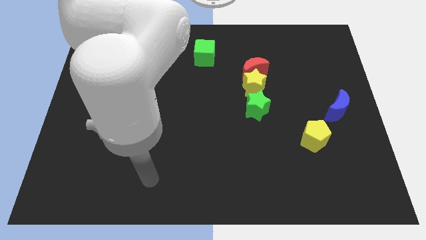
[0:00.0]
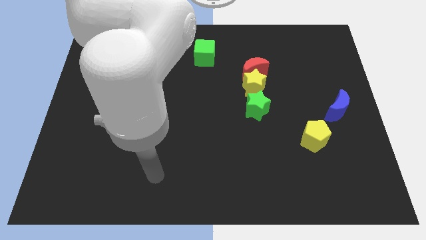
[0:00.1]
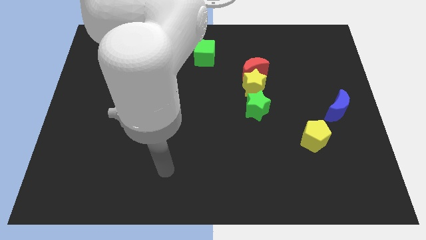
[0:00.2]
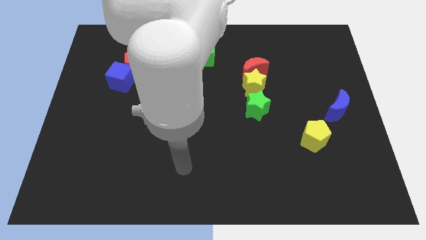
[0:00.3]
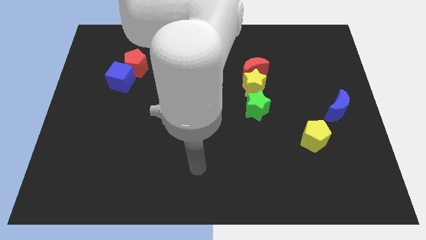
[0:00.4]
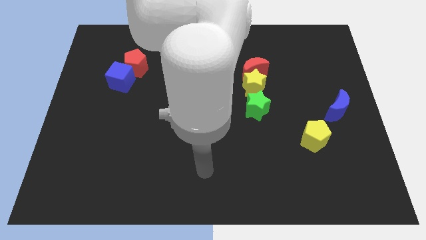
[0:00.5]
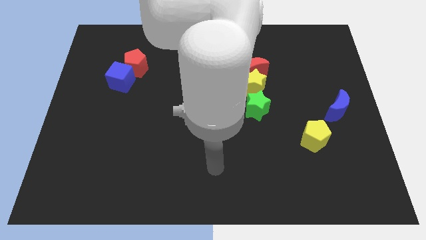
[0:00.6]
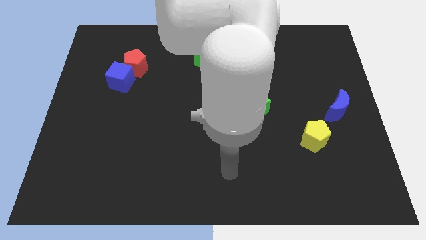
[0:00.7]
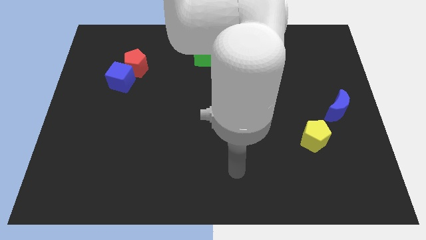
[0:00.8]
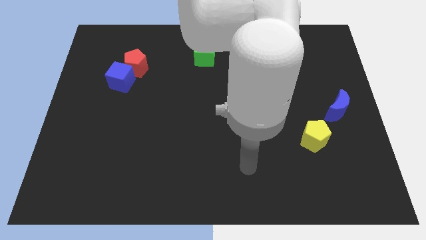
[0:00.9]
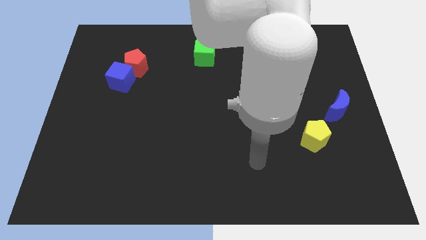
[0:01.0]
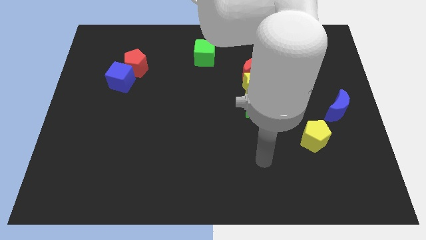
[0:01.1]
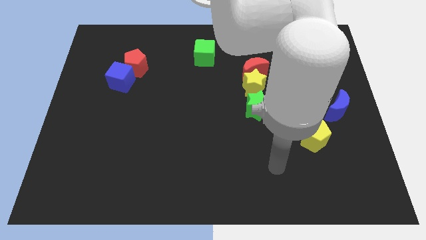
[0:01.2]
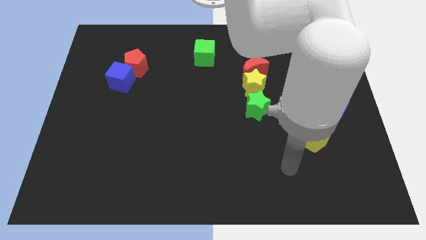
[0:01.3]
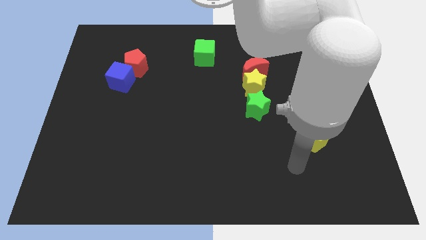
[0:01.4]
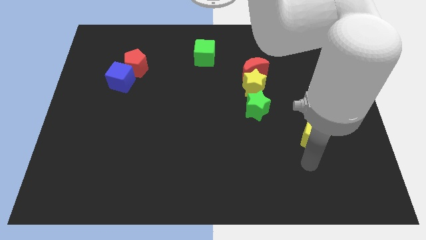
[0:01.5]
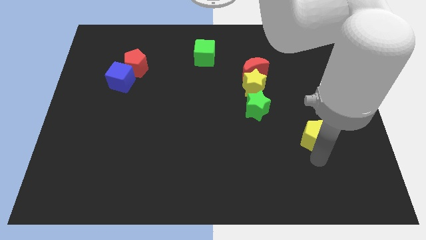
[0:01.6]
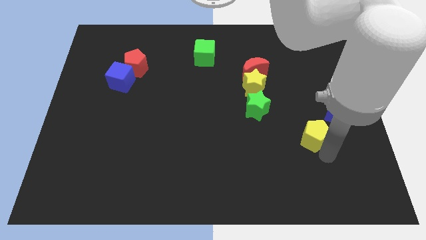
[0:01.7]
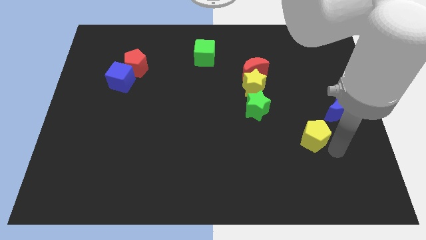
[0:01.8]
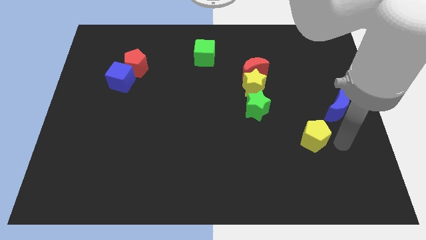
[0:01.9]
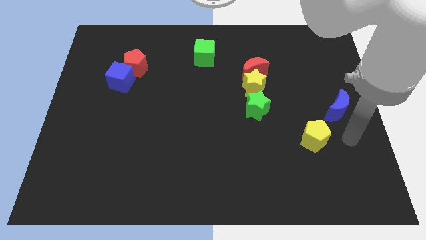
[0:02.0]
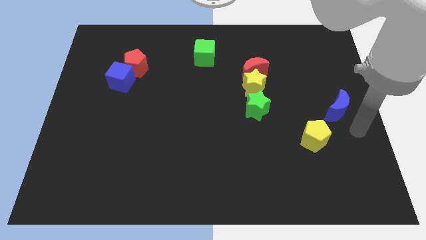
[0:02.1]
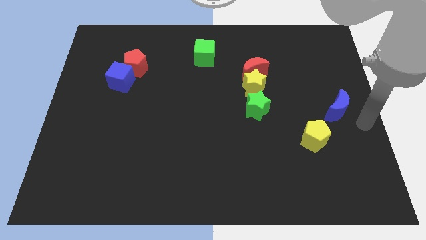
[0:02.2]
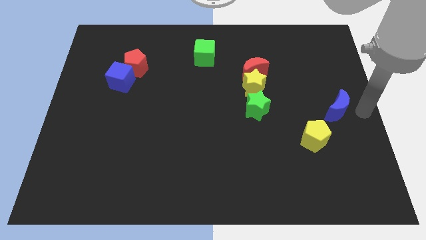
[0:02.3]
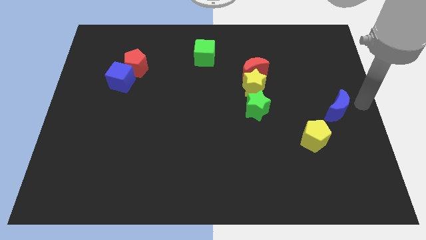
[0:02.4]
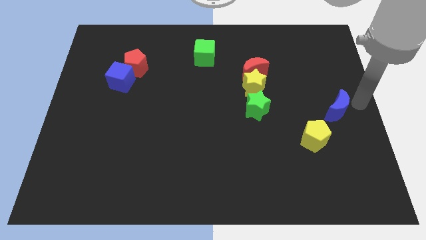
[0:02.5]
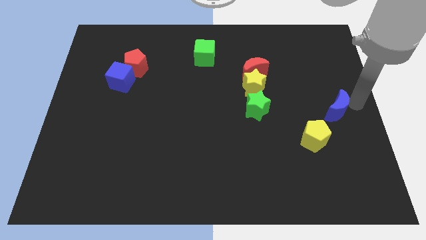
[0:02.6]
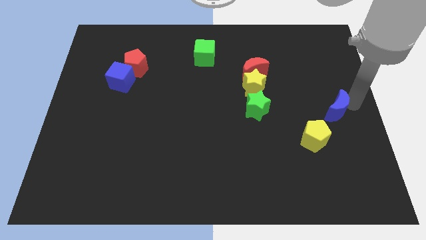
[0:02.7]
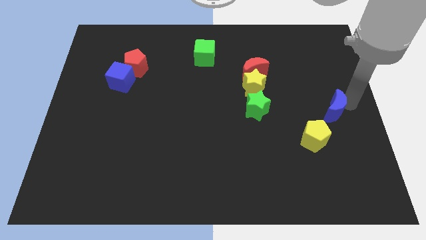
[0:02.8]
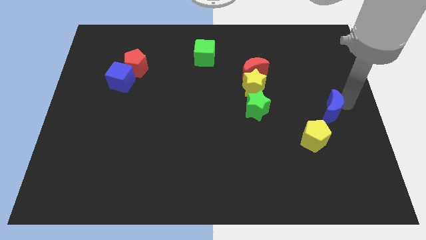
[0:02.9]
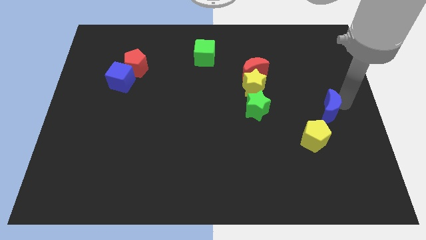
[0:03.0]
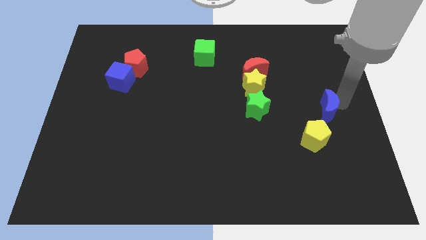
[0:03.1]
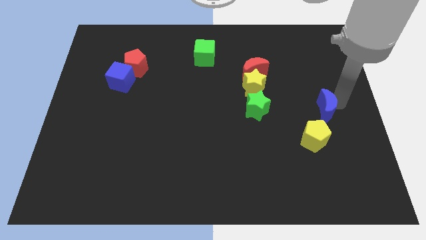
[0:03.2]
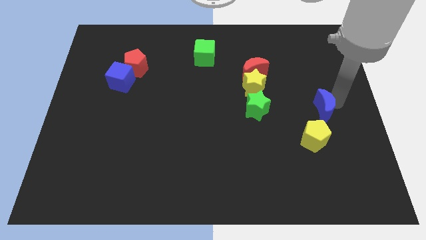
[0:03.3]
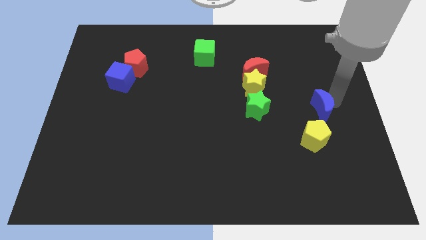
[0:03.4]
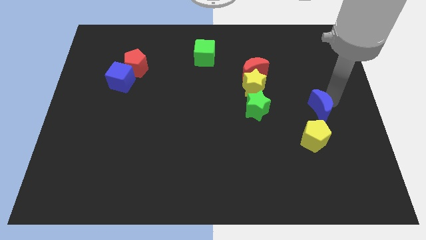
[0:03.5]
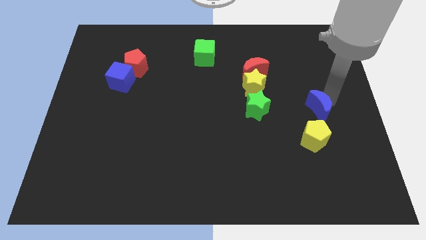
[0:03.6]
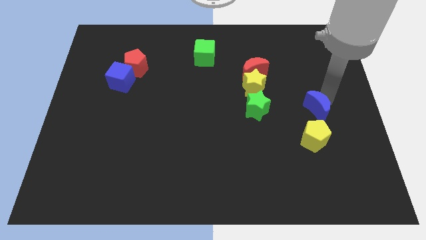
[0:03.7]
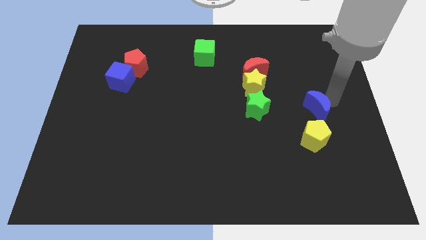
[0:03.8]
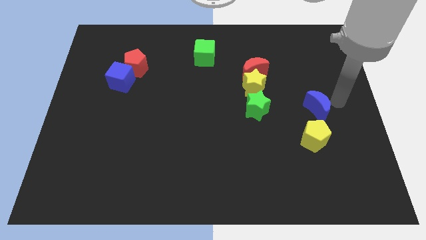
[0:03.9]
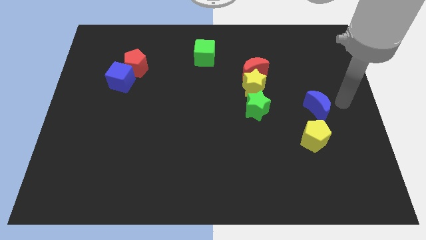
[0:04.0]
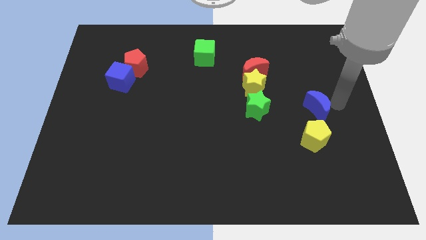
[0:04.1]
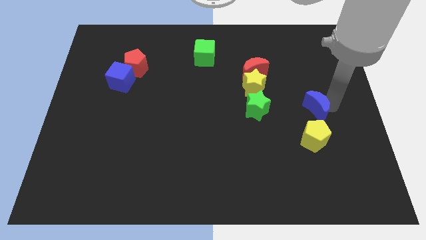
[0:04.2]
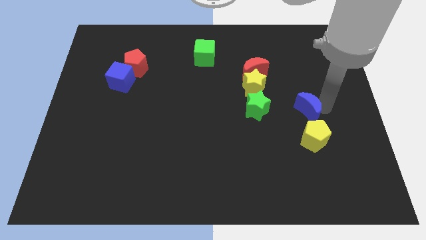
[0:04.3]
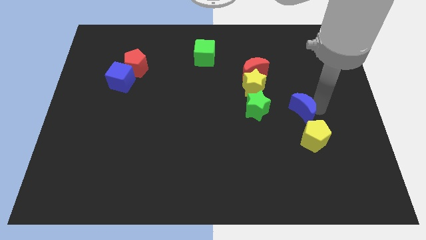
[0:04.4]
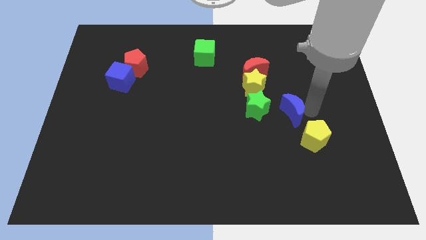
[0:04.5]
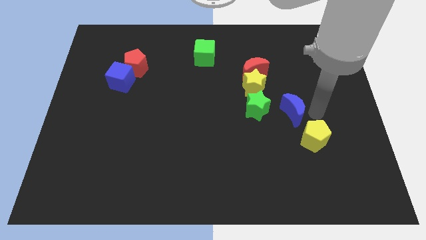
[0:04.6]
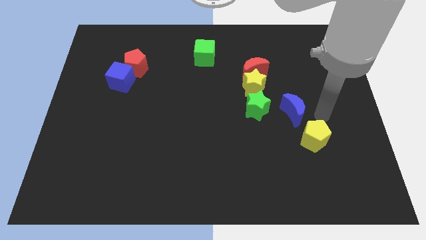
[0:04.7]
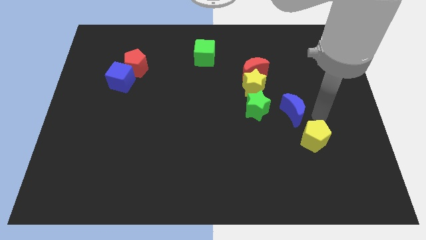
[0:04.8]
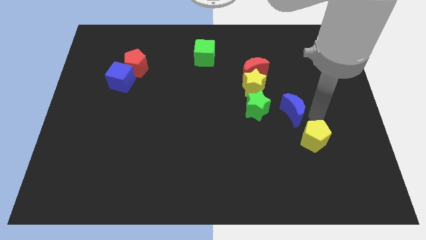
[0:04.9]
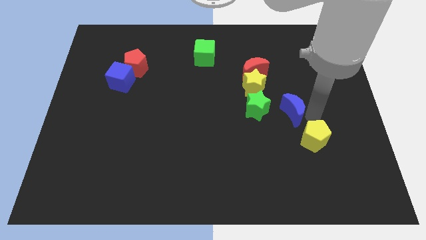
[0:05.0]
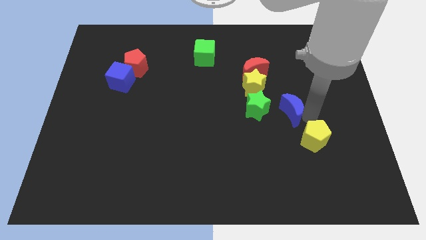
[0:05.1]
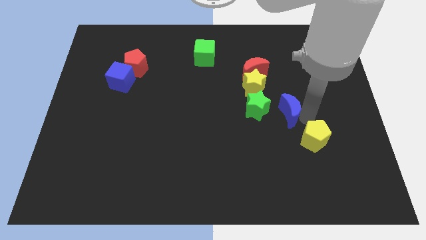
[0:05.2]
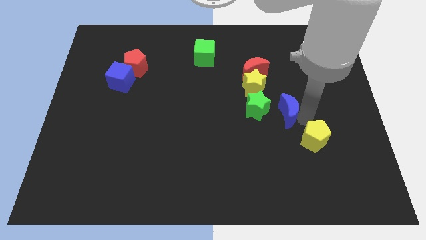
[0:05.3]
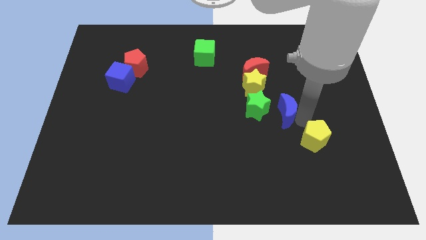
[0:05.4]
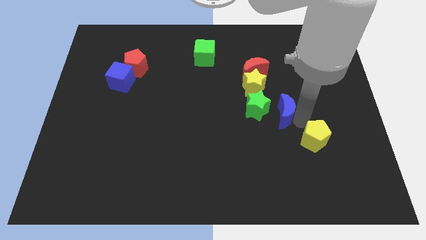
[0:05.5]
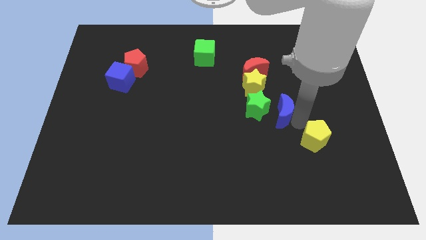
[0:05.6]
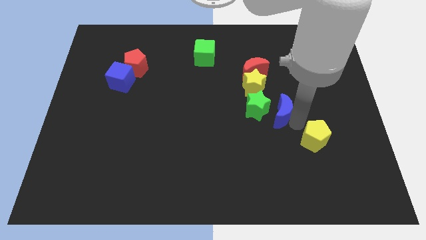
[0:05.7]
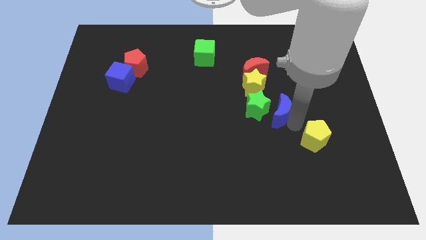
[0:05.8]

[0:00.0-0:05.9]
push the blue moon towards the green star
